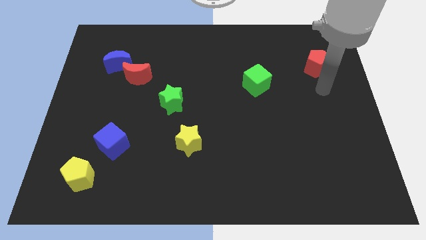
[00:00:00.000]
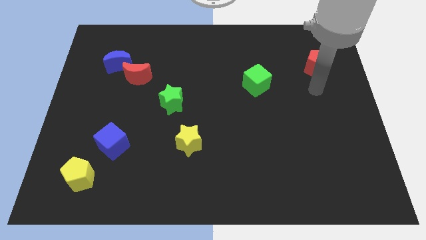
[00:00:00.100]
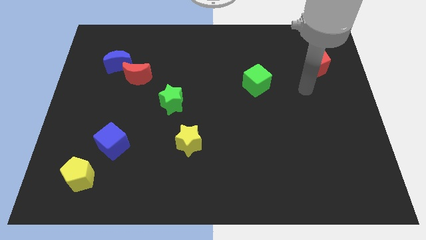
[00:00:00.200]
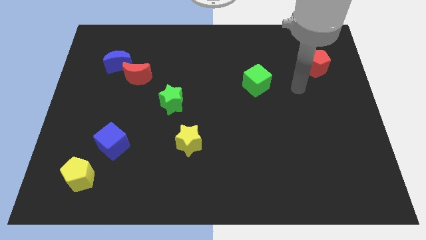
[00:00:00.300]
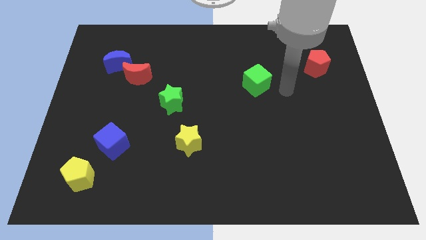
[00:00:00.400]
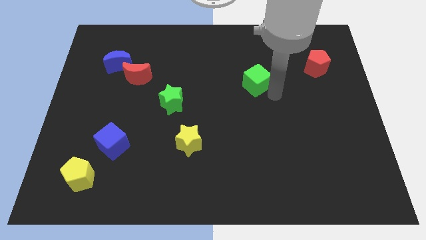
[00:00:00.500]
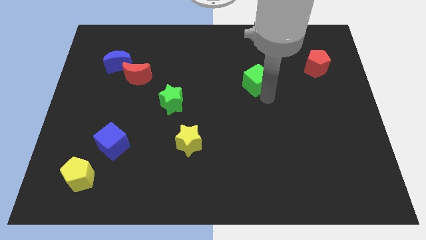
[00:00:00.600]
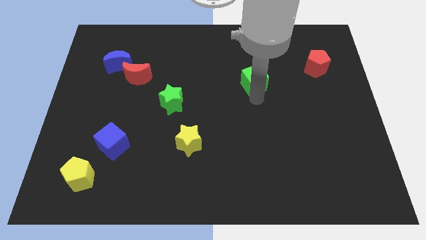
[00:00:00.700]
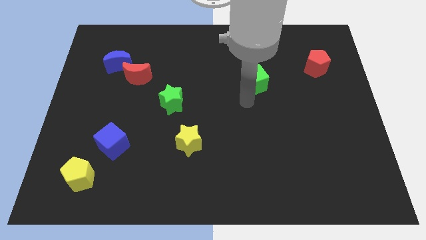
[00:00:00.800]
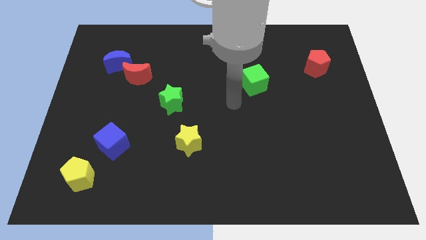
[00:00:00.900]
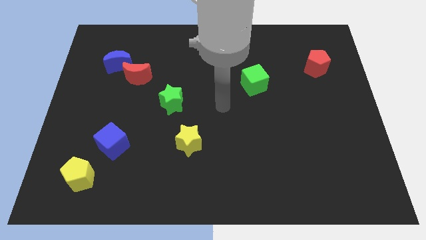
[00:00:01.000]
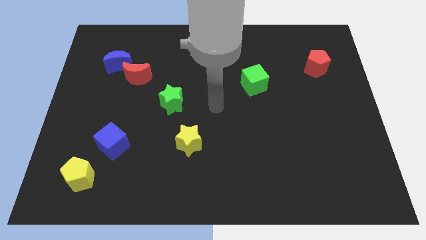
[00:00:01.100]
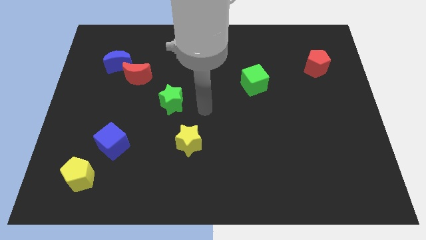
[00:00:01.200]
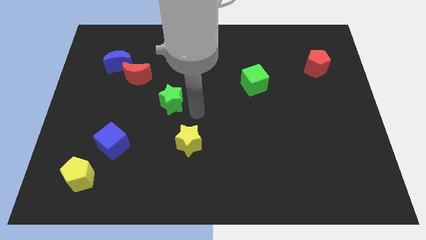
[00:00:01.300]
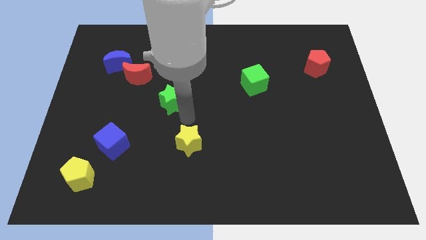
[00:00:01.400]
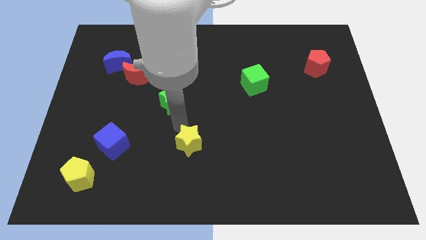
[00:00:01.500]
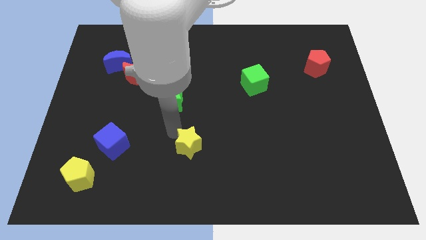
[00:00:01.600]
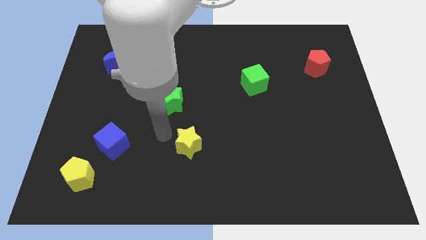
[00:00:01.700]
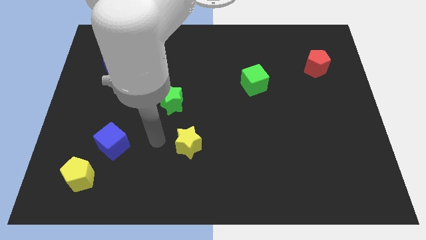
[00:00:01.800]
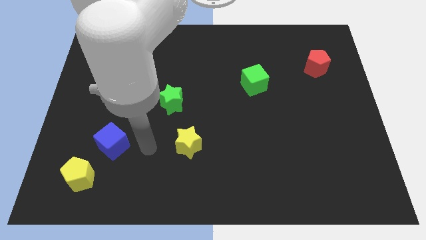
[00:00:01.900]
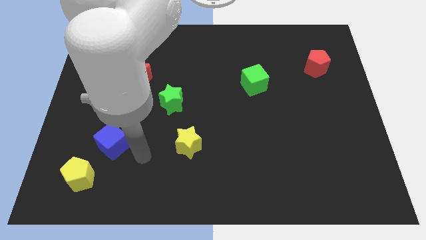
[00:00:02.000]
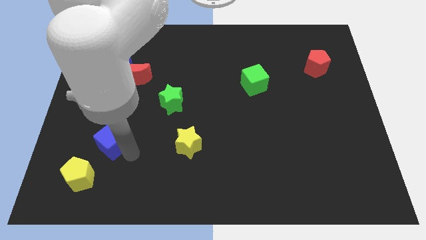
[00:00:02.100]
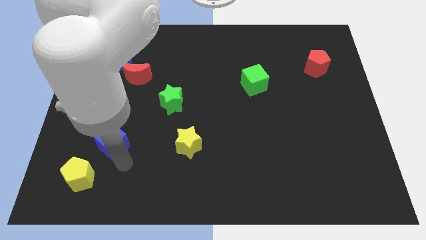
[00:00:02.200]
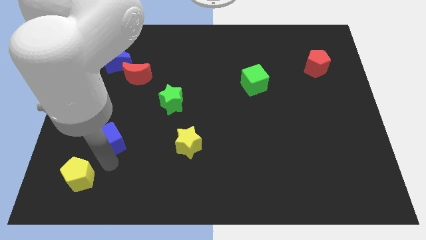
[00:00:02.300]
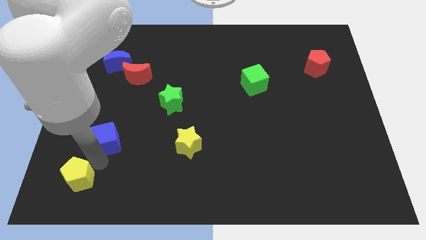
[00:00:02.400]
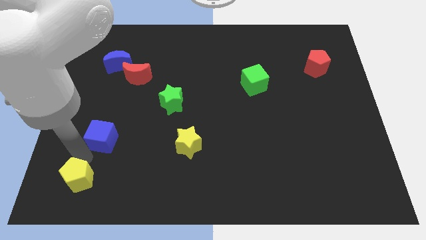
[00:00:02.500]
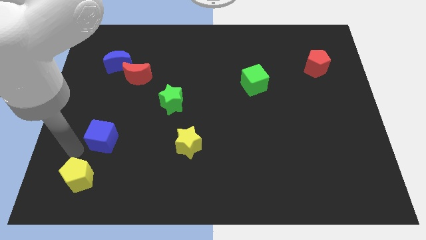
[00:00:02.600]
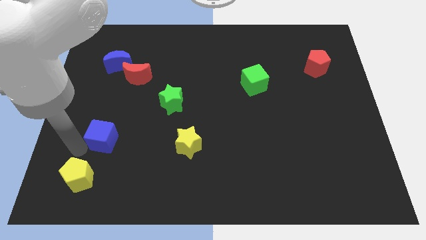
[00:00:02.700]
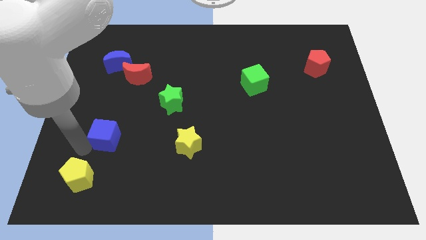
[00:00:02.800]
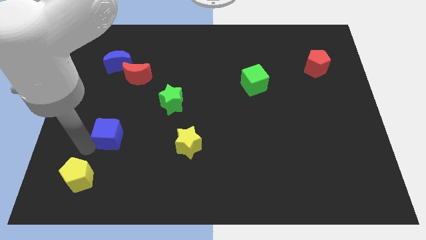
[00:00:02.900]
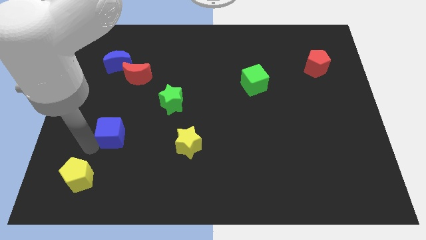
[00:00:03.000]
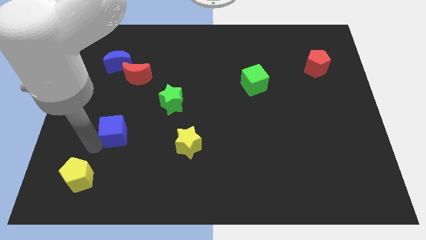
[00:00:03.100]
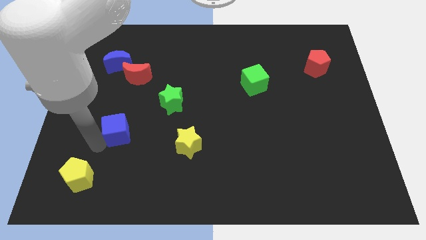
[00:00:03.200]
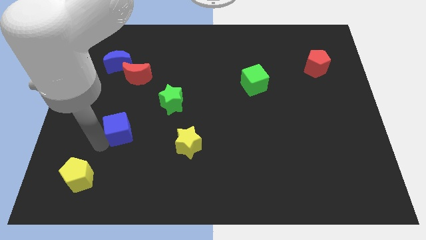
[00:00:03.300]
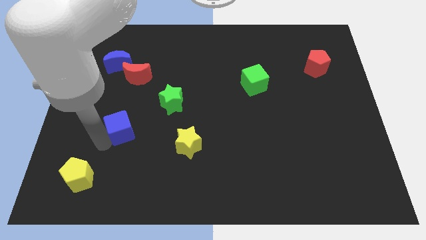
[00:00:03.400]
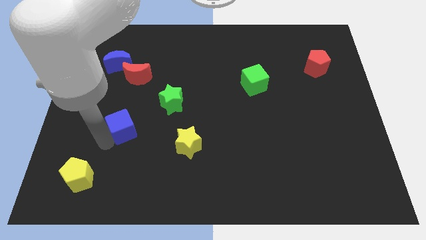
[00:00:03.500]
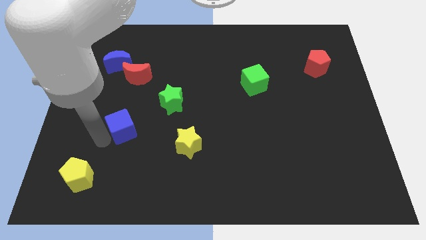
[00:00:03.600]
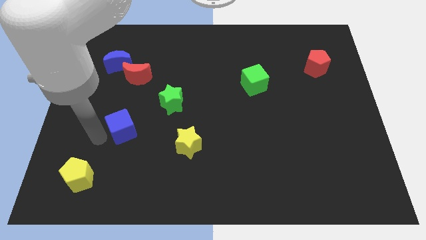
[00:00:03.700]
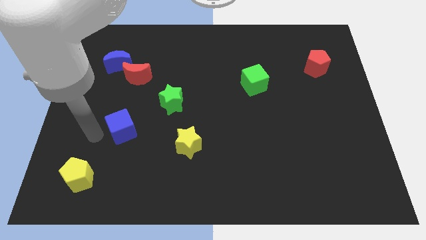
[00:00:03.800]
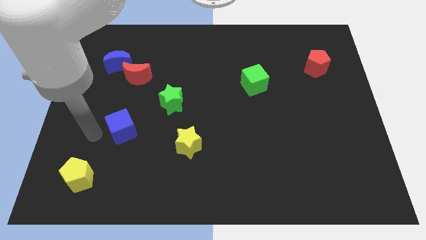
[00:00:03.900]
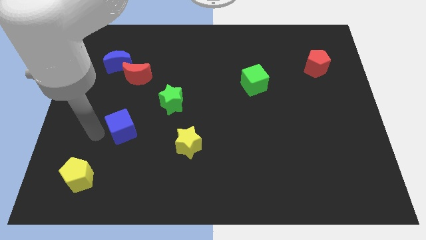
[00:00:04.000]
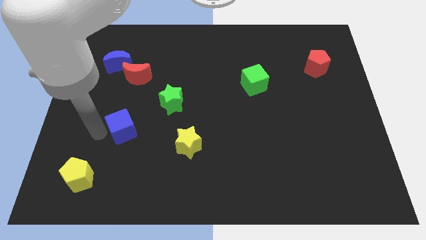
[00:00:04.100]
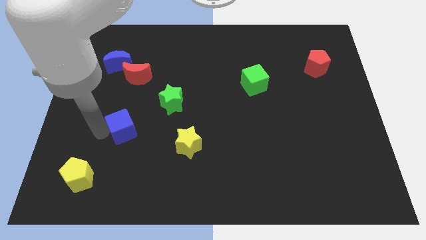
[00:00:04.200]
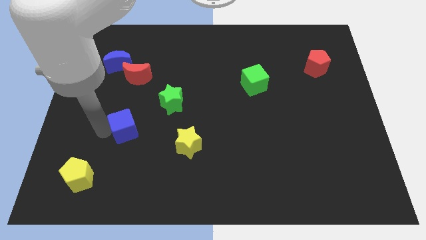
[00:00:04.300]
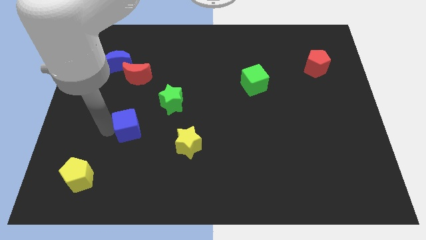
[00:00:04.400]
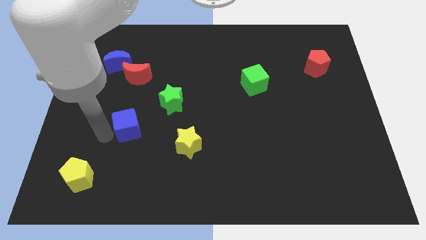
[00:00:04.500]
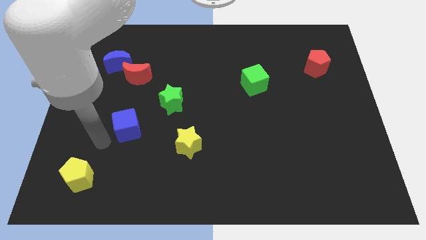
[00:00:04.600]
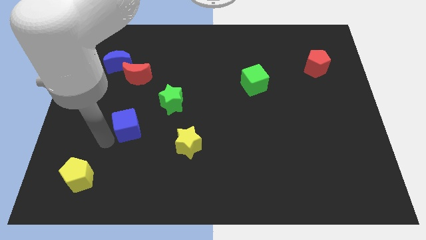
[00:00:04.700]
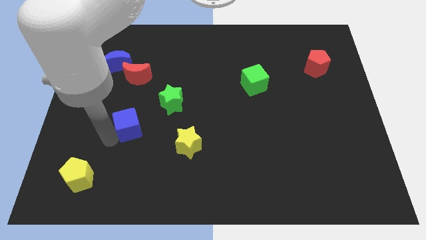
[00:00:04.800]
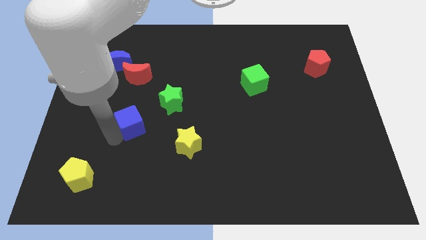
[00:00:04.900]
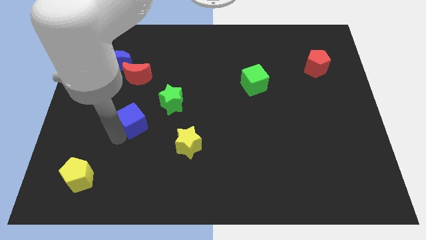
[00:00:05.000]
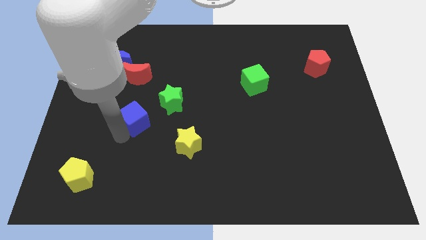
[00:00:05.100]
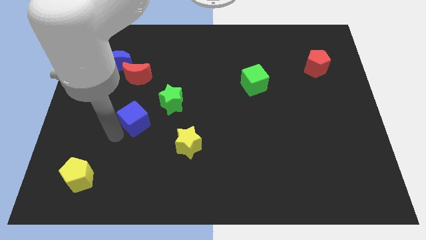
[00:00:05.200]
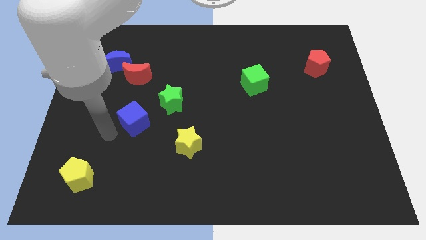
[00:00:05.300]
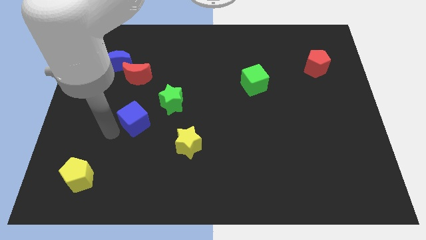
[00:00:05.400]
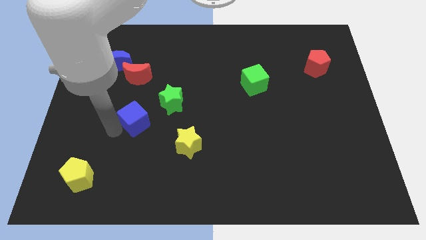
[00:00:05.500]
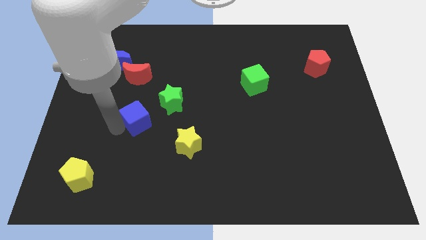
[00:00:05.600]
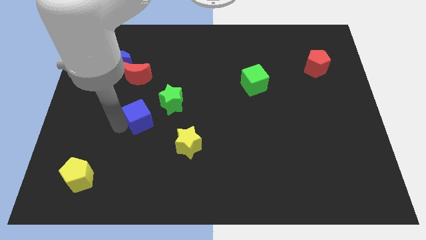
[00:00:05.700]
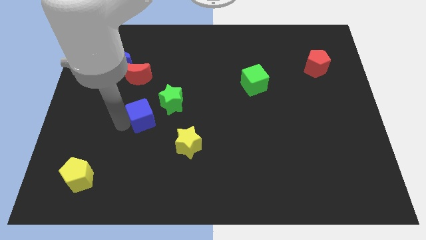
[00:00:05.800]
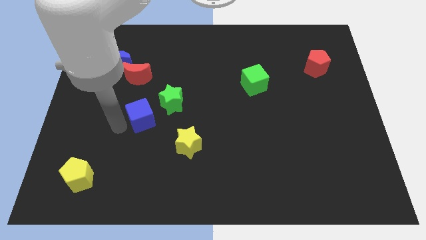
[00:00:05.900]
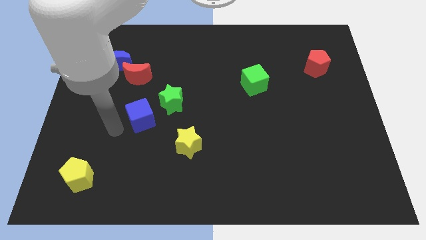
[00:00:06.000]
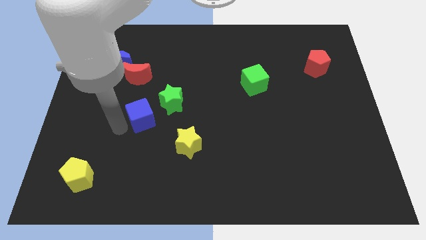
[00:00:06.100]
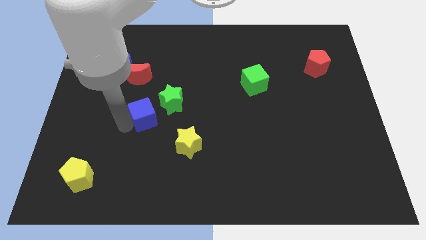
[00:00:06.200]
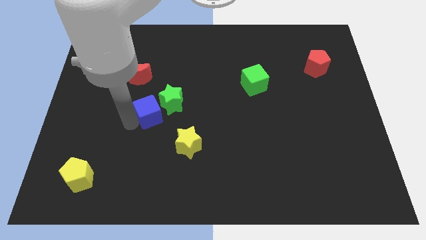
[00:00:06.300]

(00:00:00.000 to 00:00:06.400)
push the blue cube close to the green star

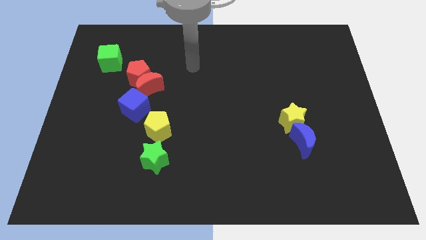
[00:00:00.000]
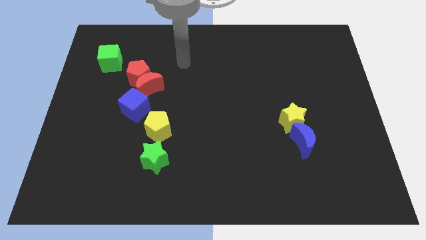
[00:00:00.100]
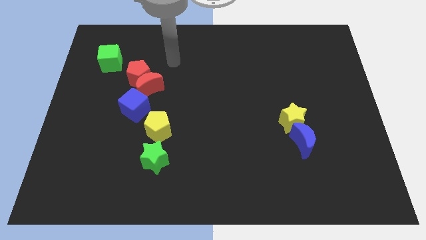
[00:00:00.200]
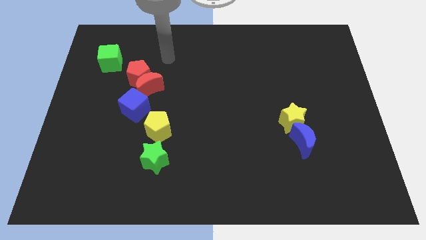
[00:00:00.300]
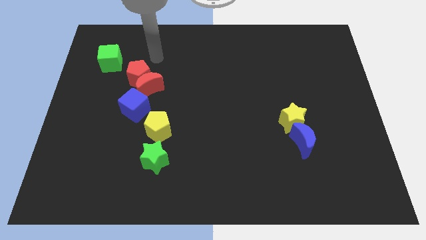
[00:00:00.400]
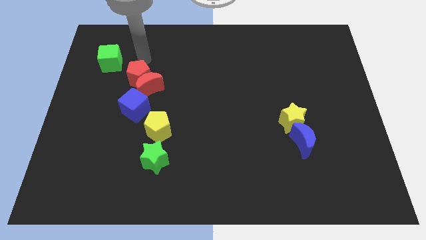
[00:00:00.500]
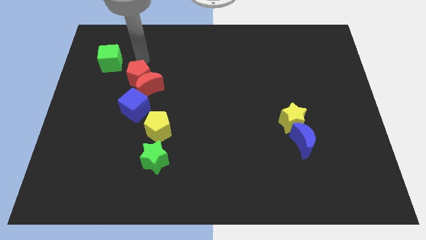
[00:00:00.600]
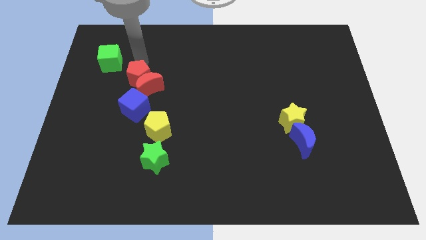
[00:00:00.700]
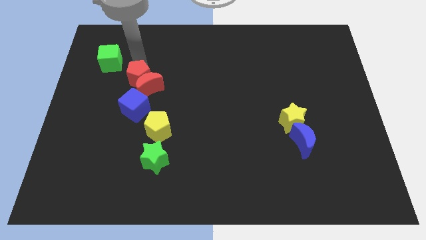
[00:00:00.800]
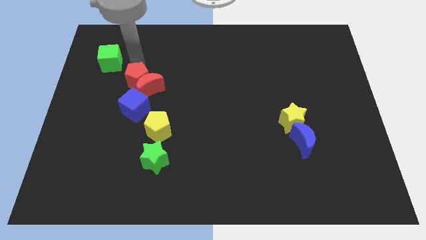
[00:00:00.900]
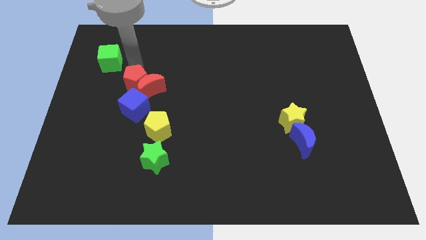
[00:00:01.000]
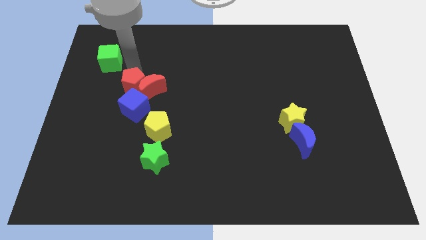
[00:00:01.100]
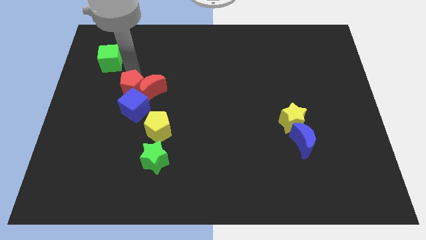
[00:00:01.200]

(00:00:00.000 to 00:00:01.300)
slide the red pentagon to the blue cube
